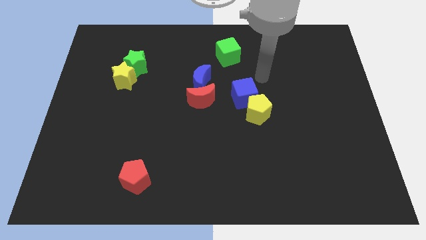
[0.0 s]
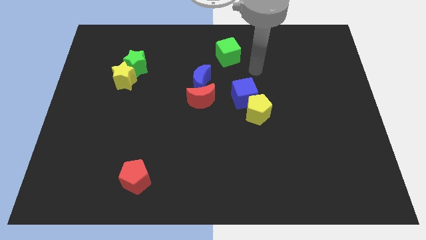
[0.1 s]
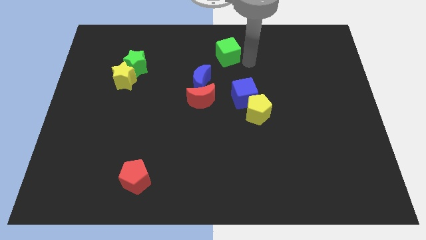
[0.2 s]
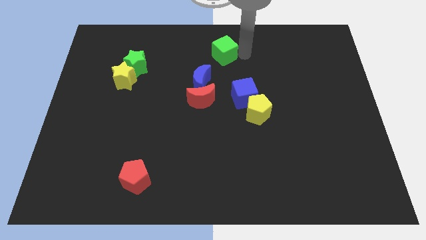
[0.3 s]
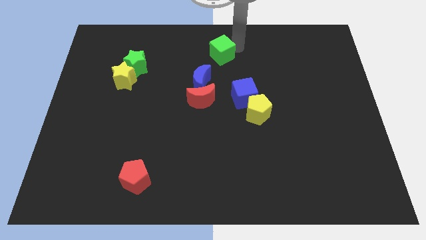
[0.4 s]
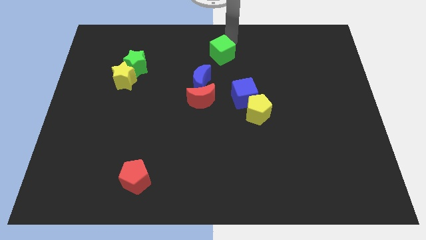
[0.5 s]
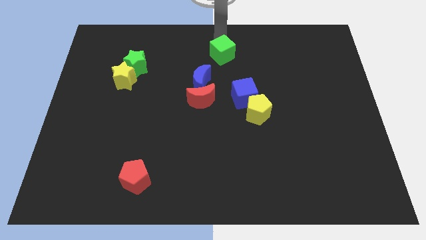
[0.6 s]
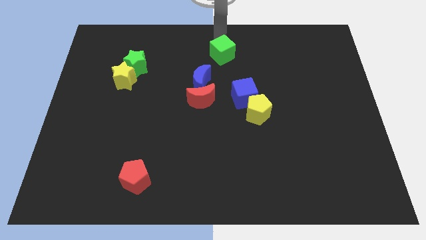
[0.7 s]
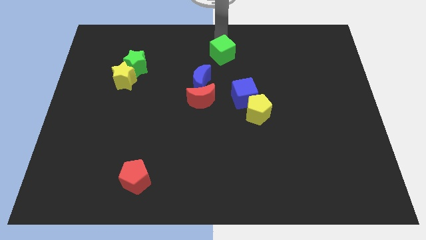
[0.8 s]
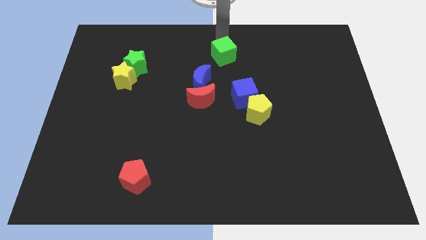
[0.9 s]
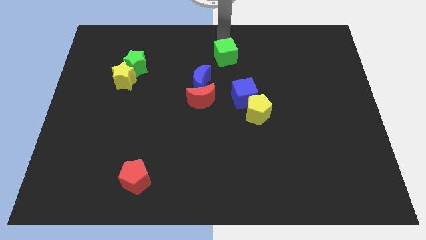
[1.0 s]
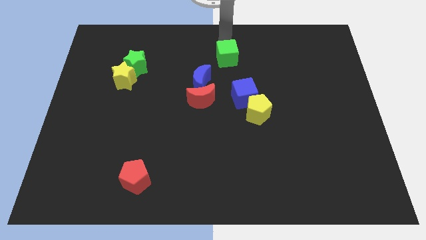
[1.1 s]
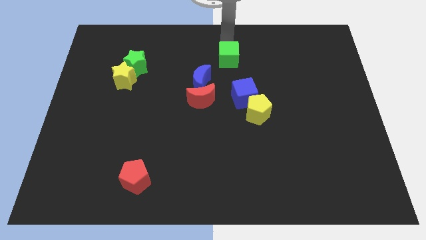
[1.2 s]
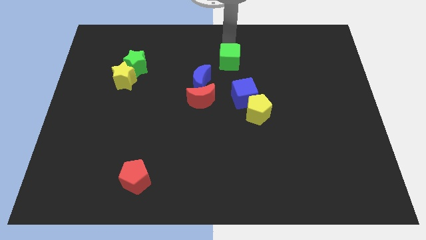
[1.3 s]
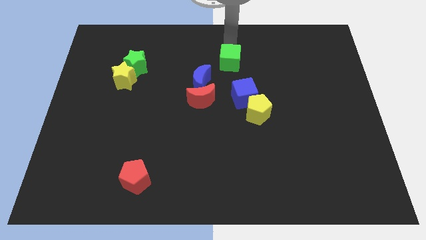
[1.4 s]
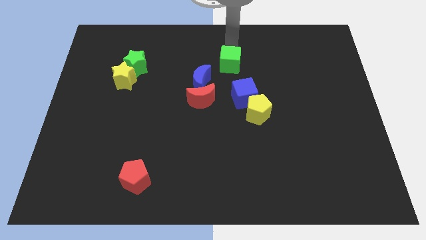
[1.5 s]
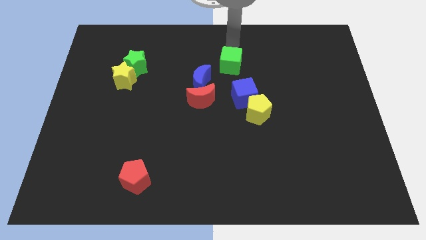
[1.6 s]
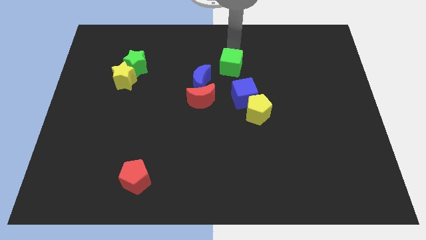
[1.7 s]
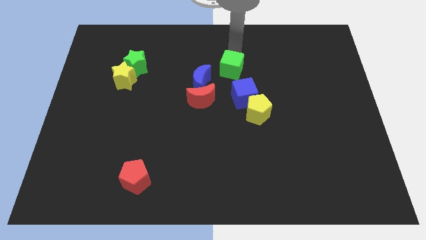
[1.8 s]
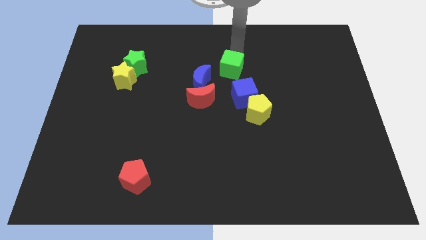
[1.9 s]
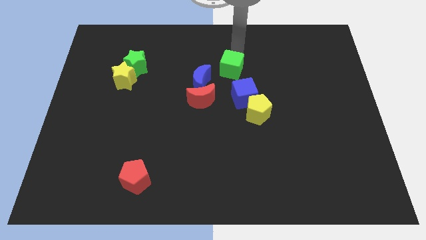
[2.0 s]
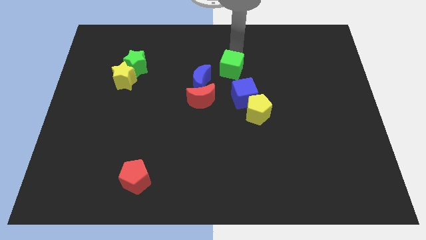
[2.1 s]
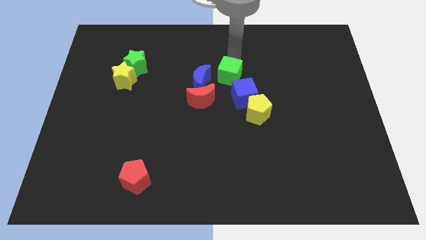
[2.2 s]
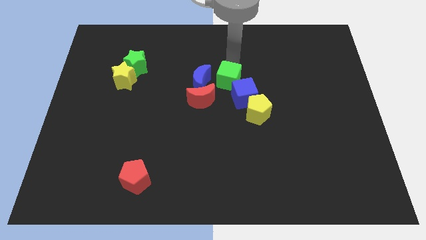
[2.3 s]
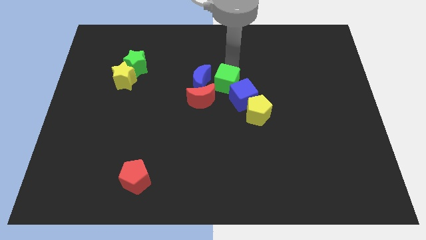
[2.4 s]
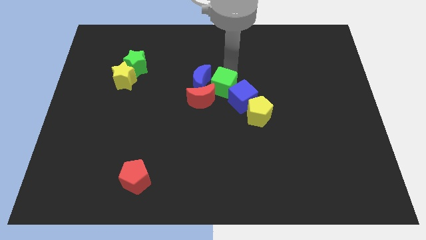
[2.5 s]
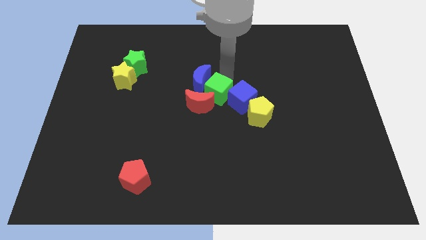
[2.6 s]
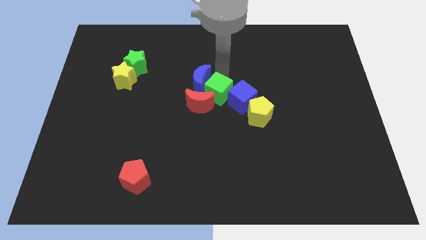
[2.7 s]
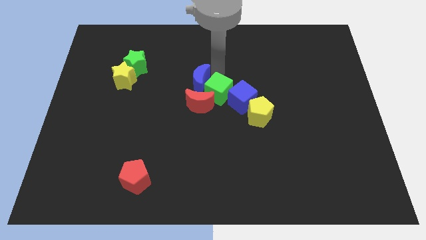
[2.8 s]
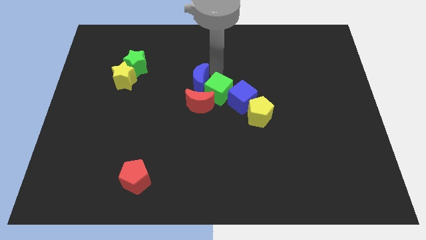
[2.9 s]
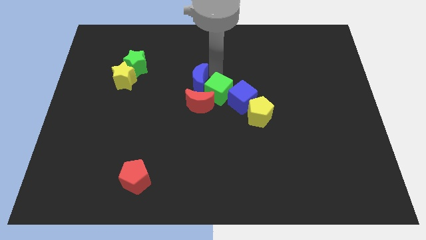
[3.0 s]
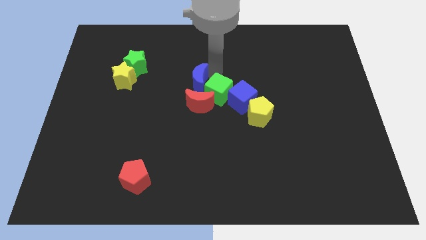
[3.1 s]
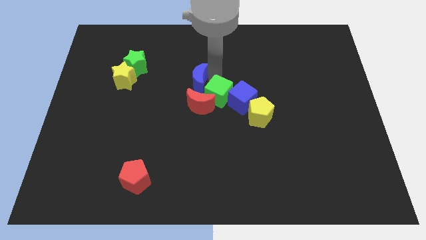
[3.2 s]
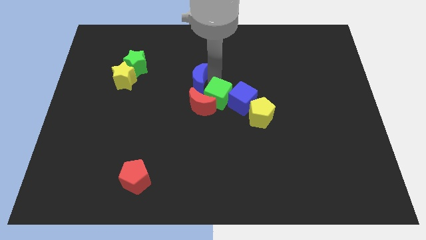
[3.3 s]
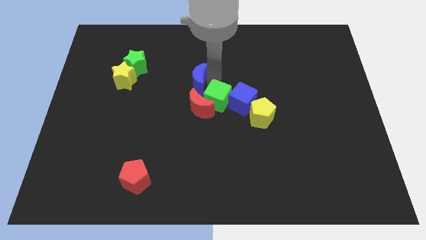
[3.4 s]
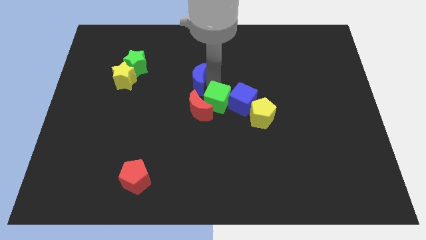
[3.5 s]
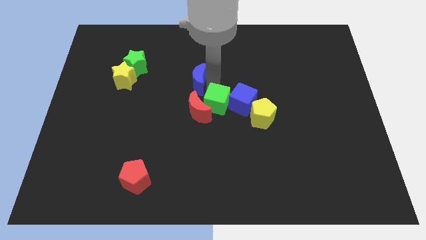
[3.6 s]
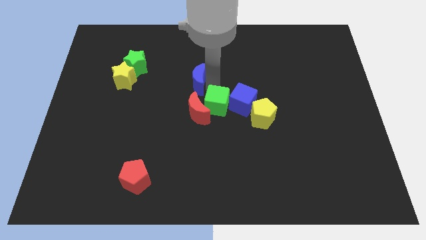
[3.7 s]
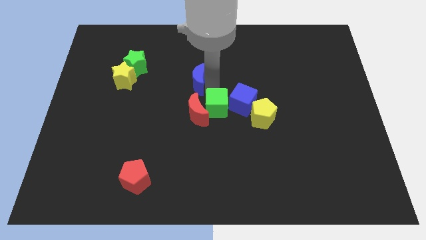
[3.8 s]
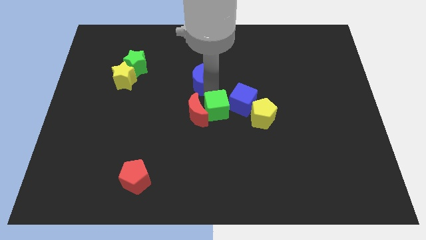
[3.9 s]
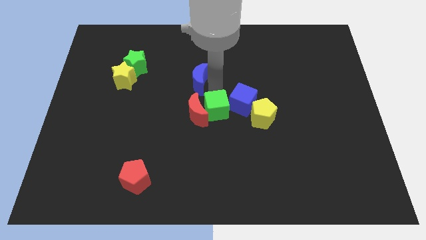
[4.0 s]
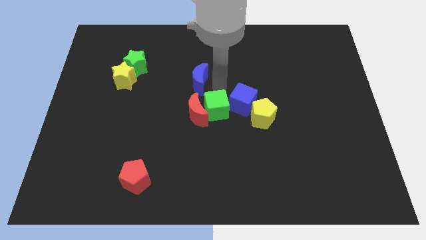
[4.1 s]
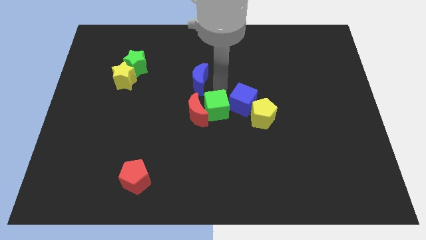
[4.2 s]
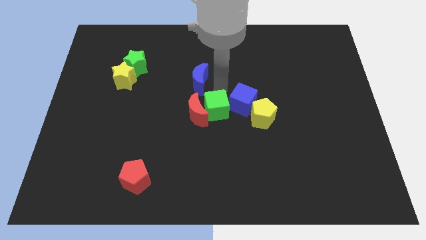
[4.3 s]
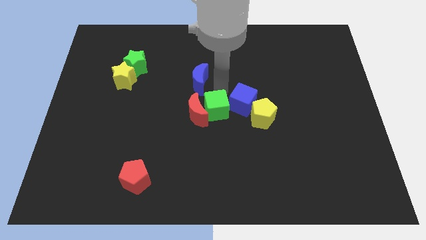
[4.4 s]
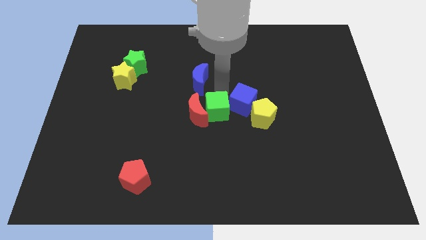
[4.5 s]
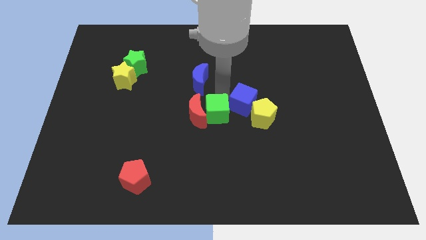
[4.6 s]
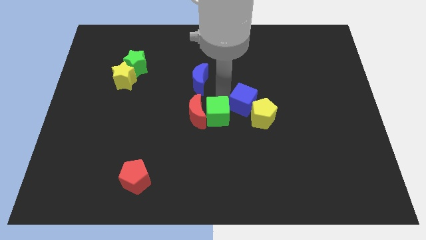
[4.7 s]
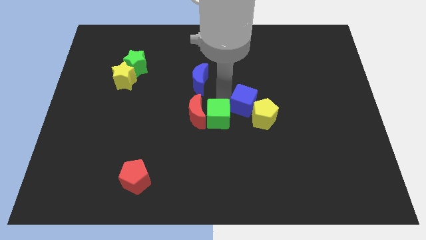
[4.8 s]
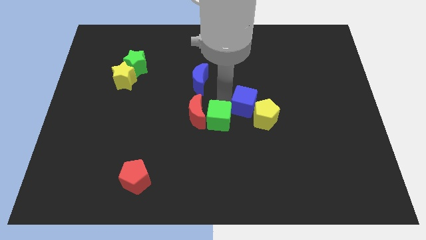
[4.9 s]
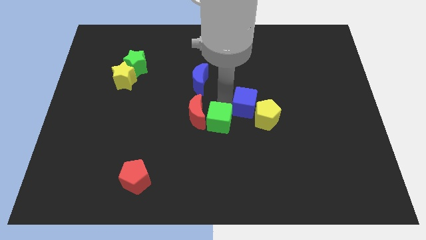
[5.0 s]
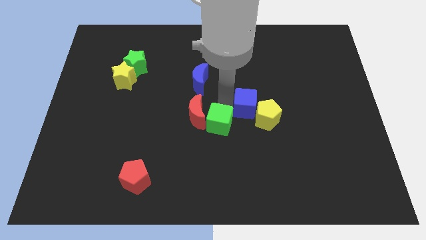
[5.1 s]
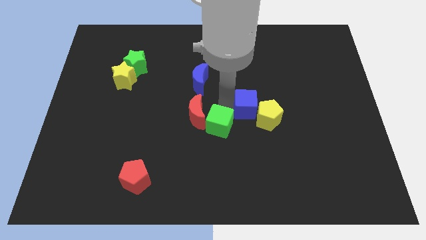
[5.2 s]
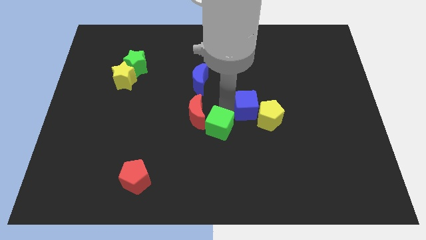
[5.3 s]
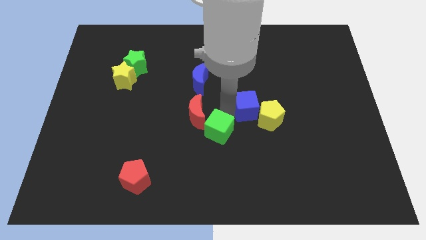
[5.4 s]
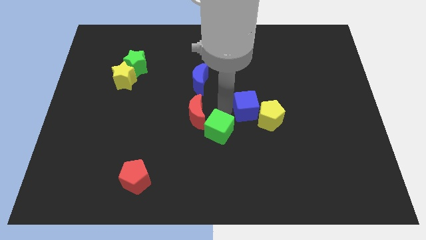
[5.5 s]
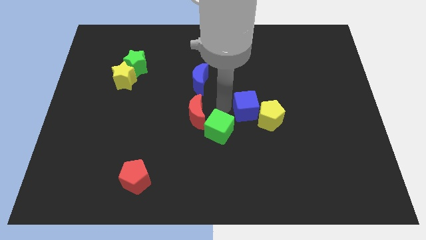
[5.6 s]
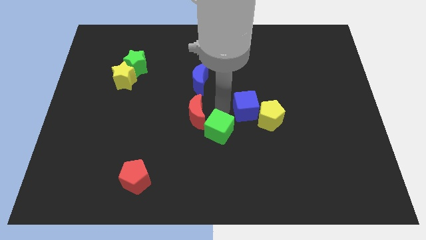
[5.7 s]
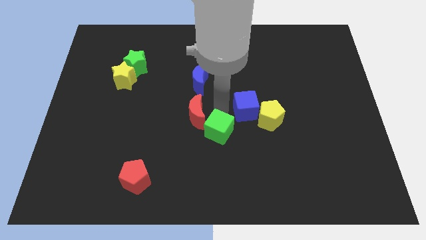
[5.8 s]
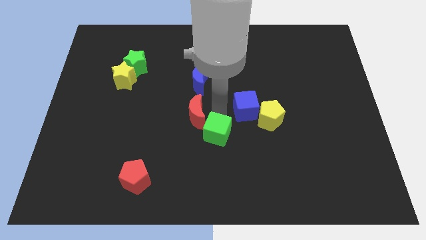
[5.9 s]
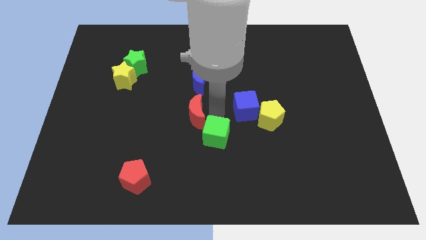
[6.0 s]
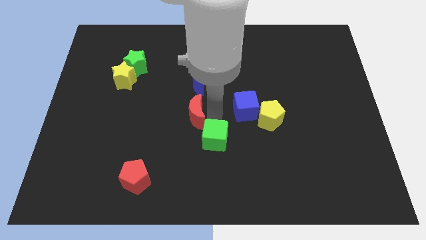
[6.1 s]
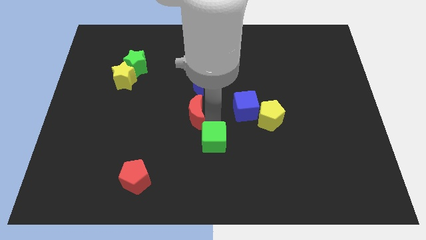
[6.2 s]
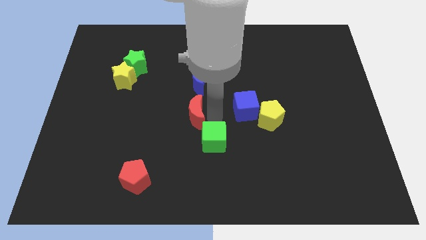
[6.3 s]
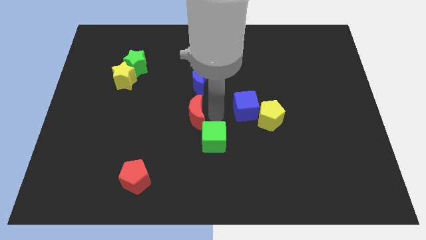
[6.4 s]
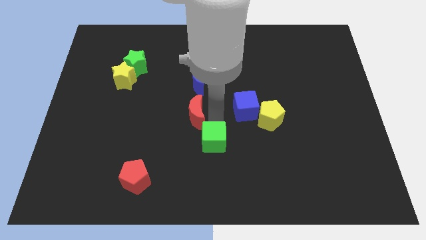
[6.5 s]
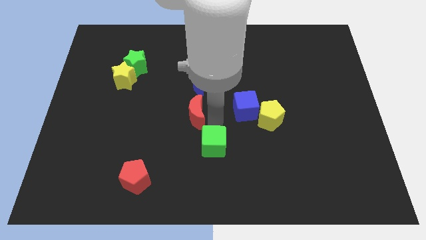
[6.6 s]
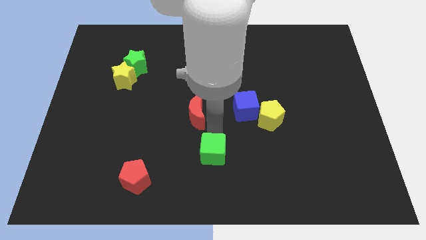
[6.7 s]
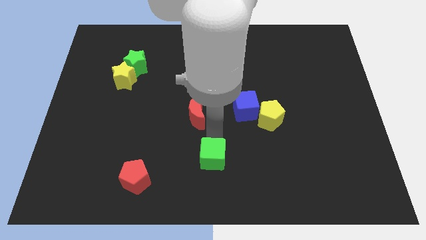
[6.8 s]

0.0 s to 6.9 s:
put the green cube to the bottom
